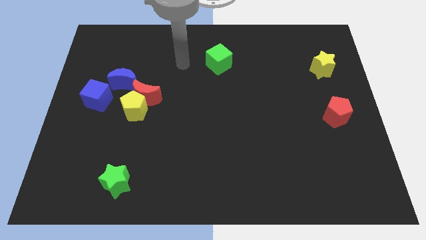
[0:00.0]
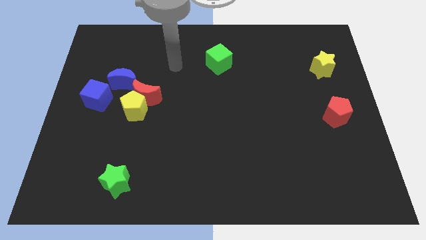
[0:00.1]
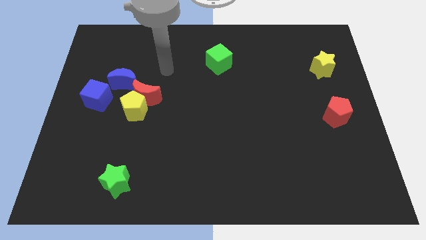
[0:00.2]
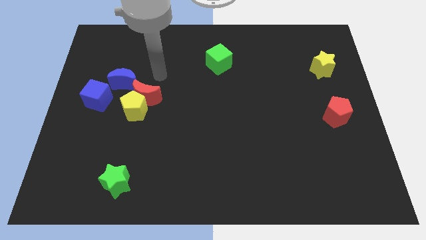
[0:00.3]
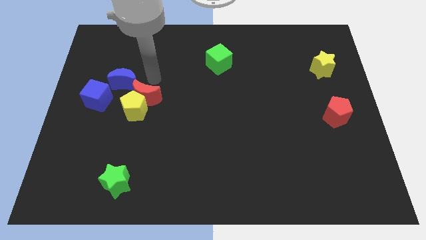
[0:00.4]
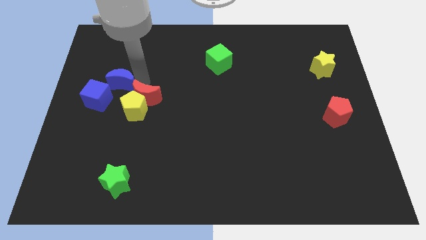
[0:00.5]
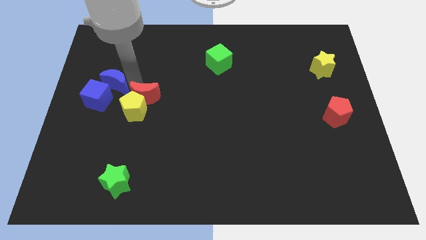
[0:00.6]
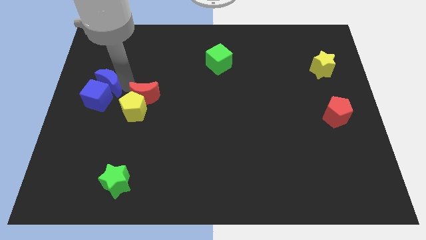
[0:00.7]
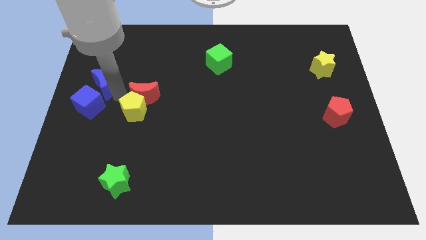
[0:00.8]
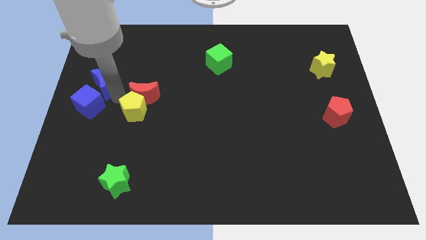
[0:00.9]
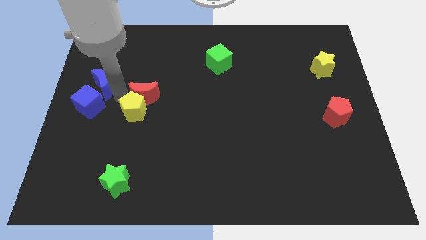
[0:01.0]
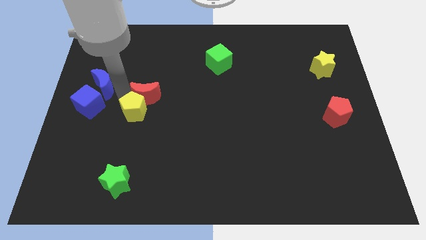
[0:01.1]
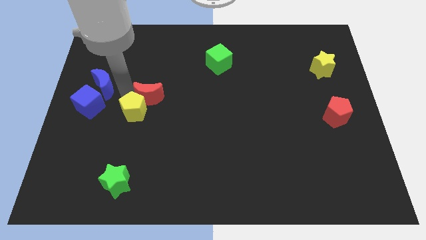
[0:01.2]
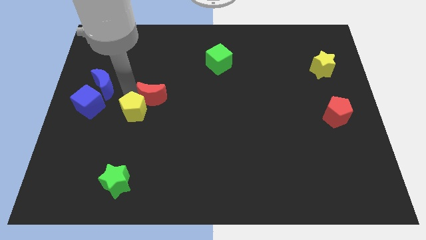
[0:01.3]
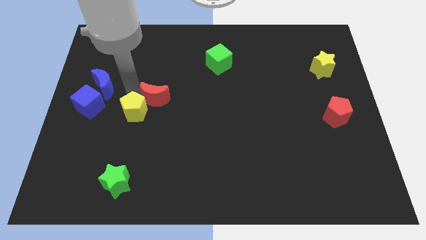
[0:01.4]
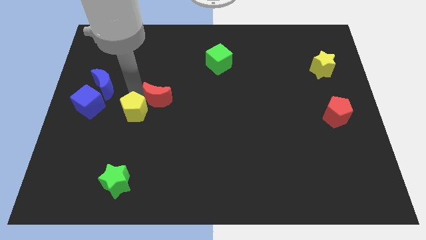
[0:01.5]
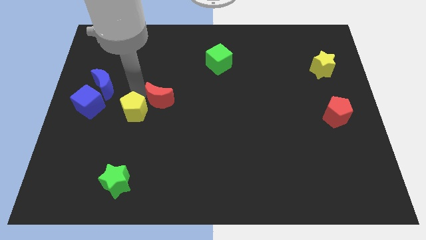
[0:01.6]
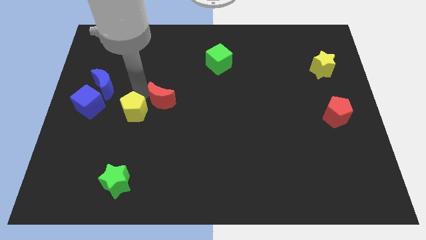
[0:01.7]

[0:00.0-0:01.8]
move the red moon away from the yellow pentagon and blue moon

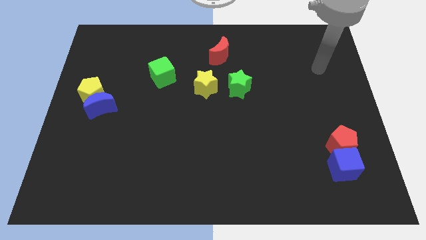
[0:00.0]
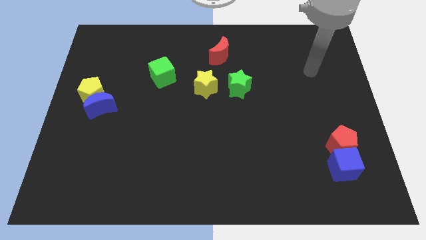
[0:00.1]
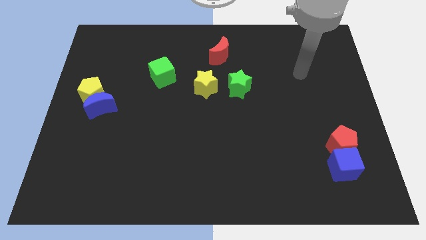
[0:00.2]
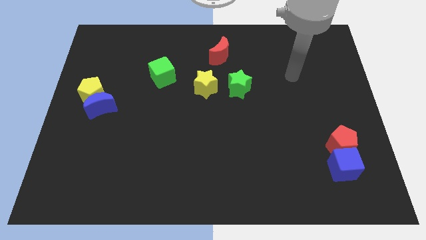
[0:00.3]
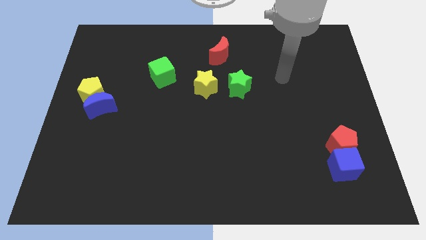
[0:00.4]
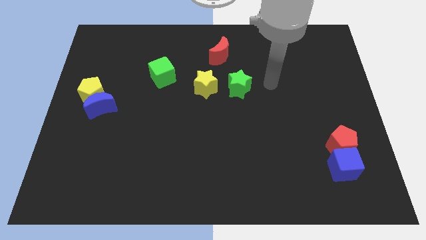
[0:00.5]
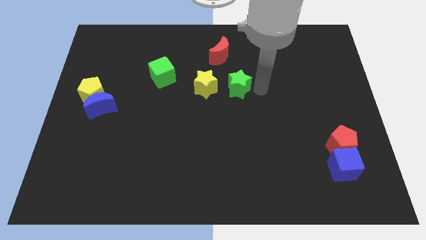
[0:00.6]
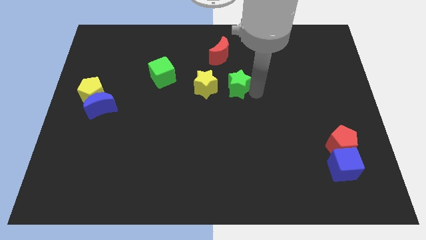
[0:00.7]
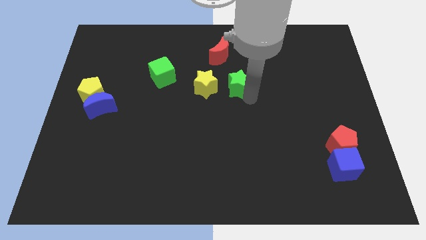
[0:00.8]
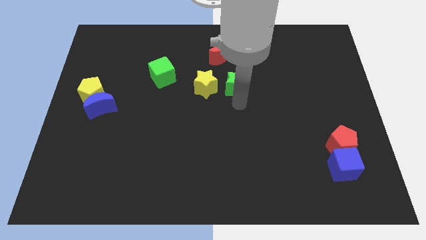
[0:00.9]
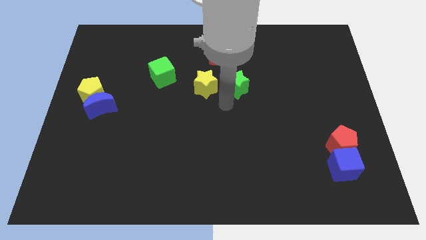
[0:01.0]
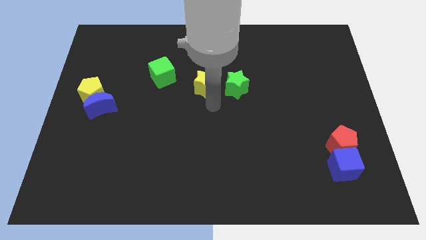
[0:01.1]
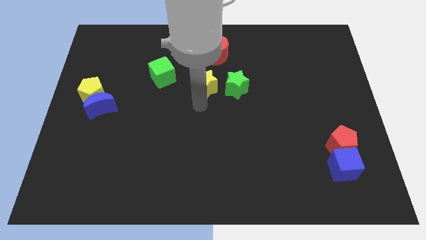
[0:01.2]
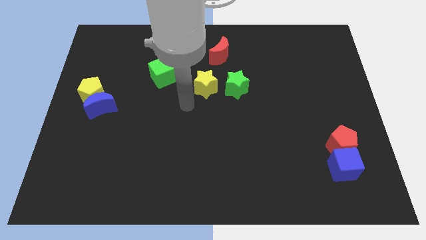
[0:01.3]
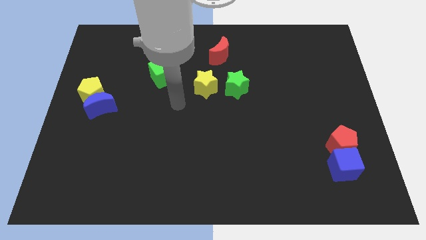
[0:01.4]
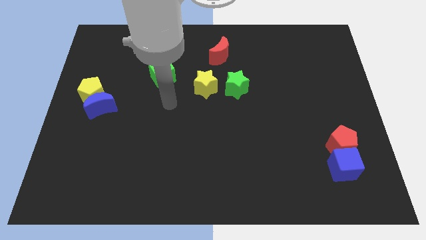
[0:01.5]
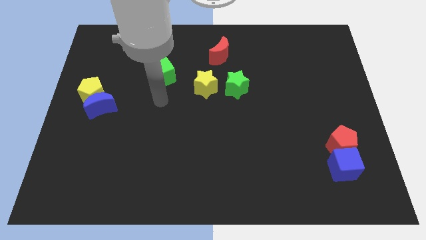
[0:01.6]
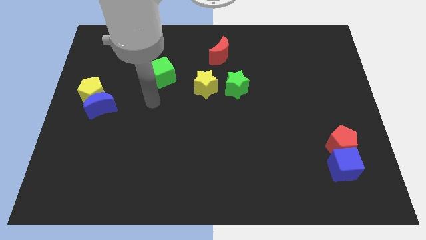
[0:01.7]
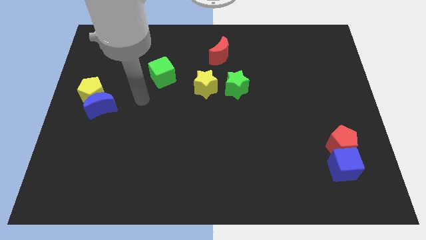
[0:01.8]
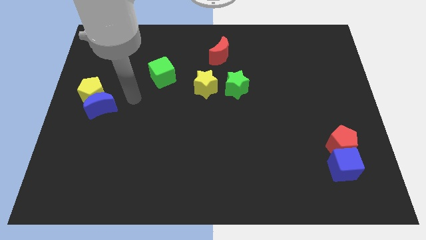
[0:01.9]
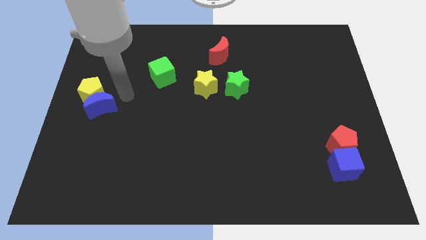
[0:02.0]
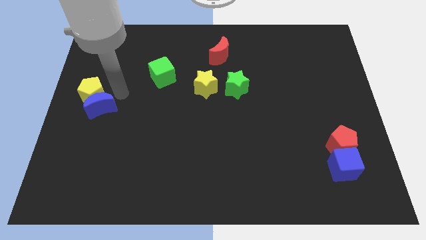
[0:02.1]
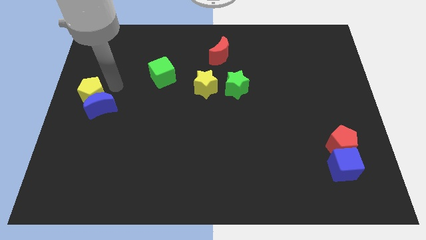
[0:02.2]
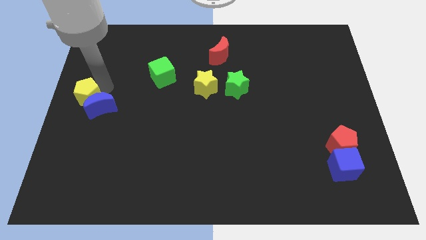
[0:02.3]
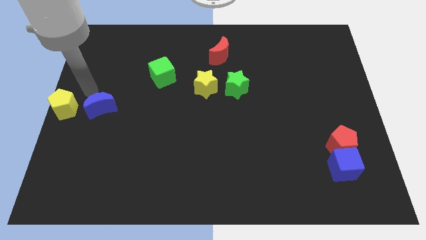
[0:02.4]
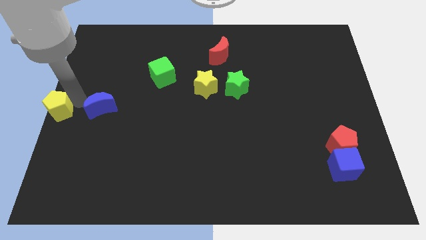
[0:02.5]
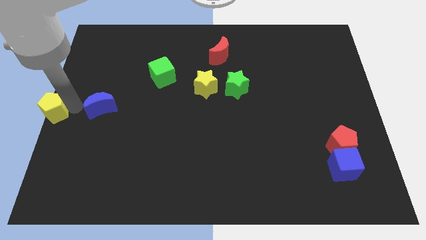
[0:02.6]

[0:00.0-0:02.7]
separate the blue moon from the yellow pentagon

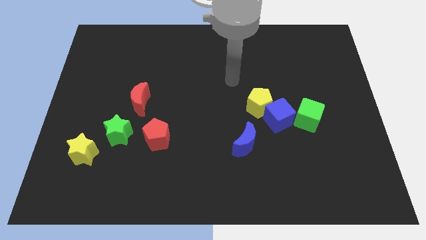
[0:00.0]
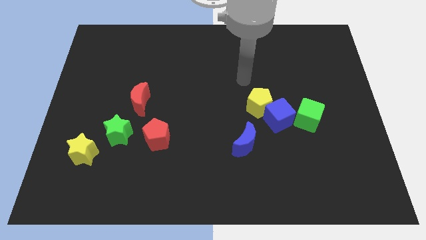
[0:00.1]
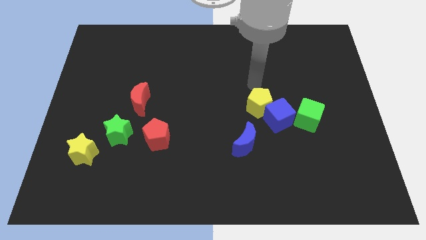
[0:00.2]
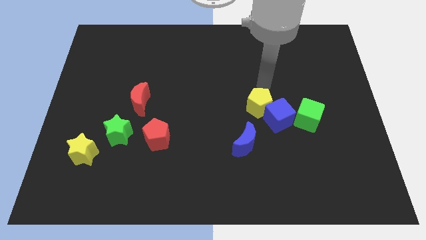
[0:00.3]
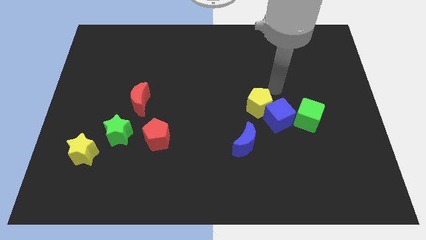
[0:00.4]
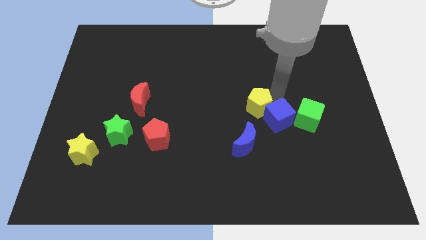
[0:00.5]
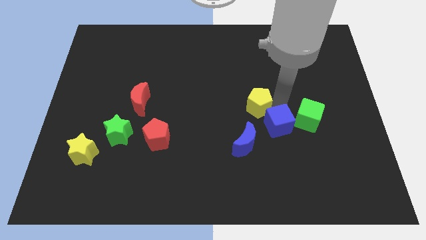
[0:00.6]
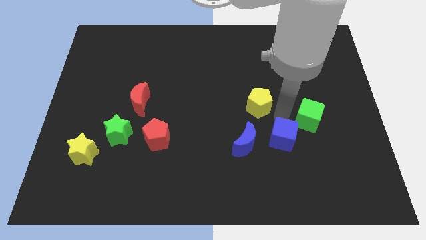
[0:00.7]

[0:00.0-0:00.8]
move the yellow pentagon away from the blue cube

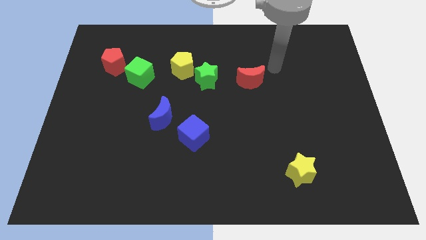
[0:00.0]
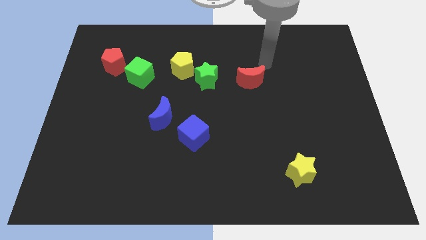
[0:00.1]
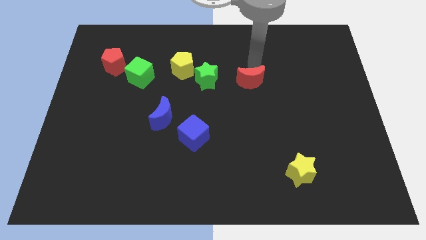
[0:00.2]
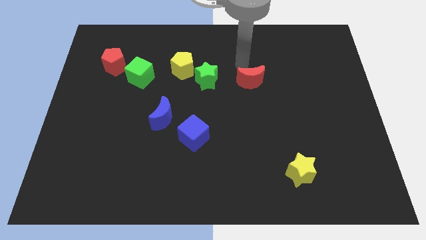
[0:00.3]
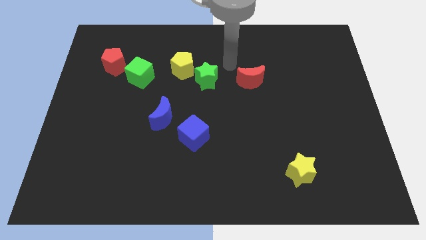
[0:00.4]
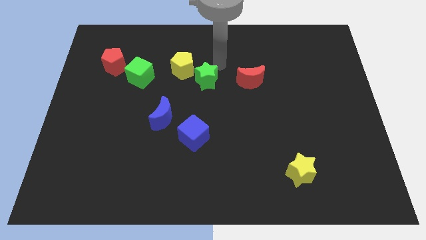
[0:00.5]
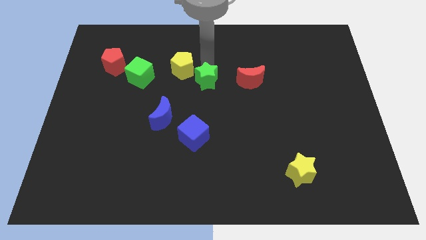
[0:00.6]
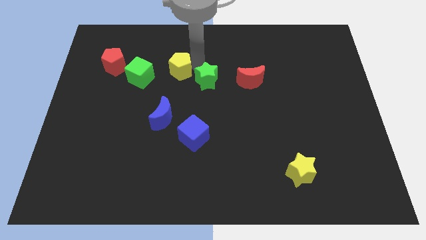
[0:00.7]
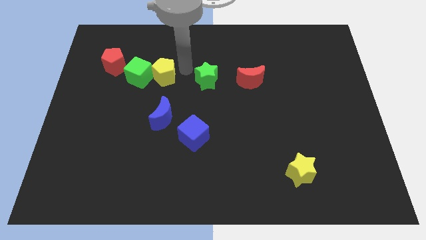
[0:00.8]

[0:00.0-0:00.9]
separate the green star from the yellow pentagon

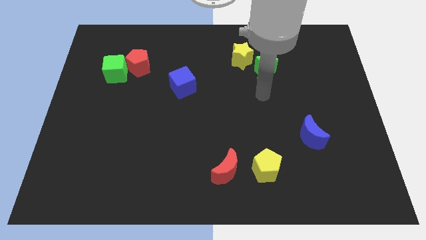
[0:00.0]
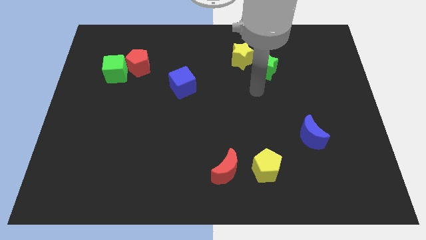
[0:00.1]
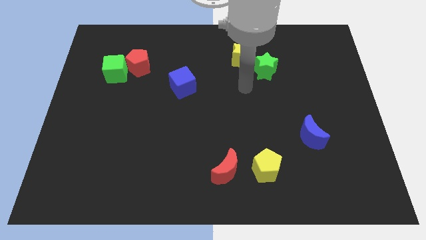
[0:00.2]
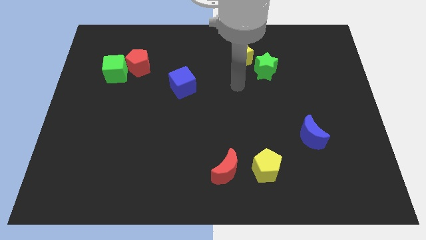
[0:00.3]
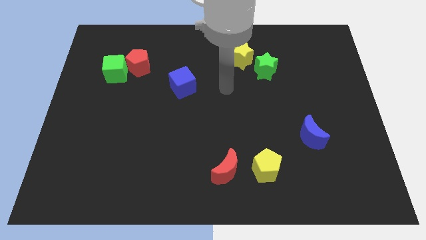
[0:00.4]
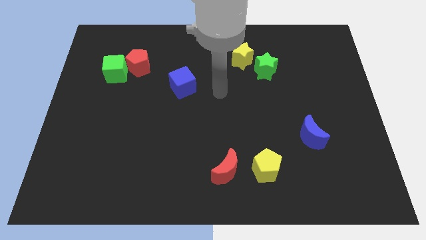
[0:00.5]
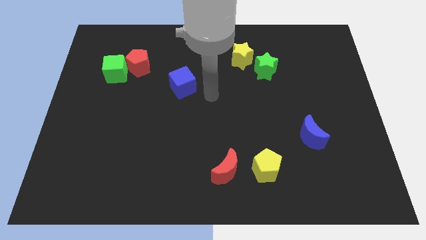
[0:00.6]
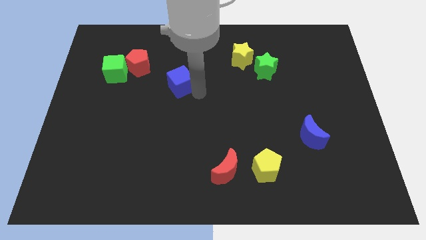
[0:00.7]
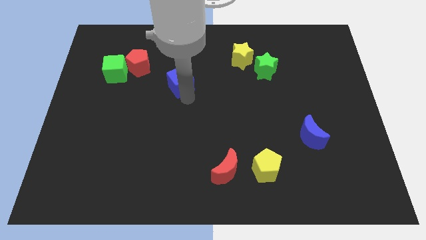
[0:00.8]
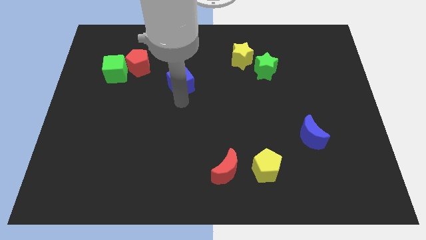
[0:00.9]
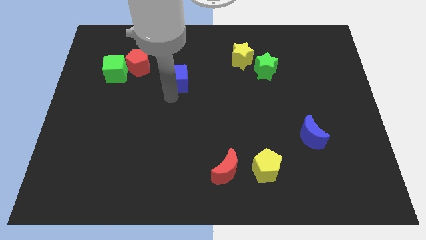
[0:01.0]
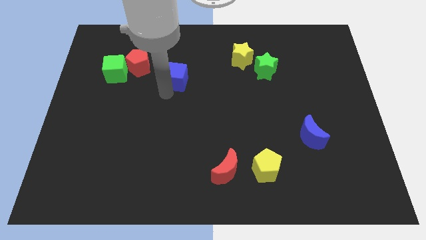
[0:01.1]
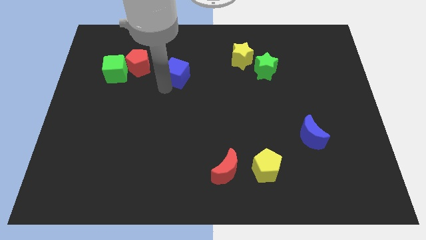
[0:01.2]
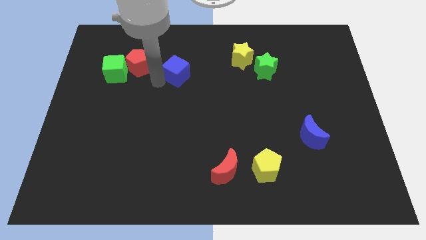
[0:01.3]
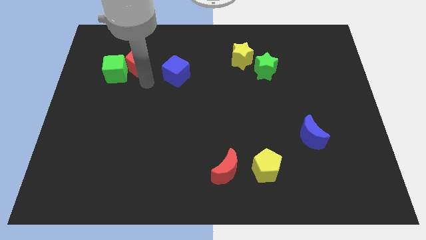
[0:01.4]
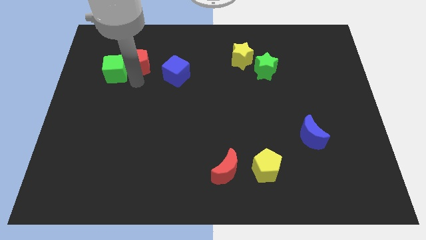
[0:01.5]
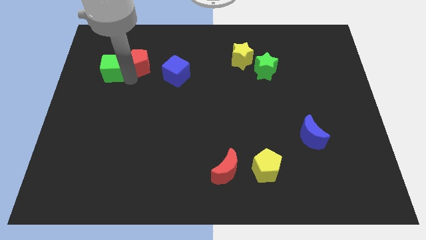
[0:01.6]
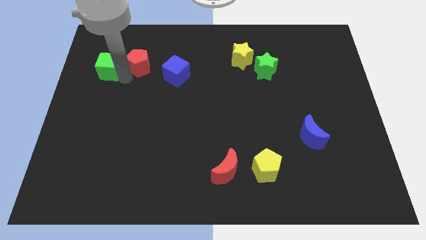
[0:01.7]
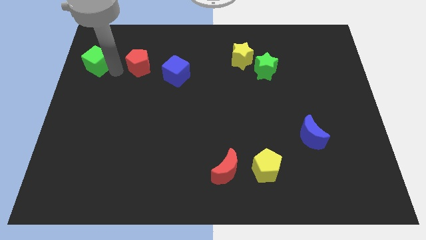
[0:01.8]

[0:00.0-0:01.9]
pull the red pentagon apart from the green cube

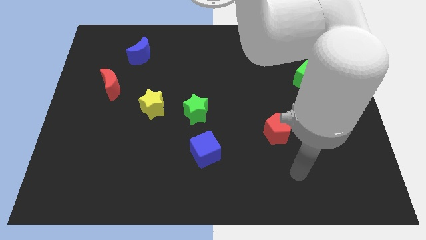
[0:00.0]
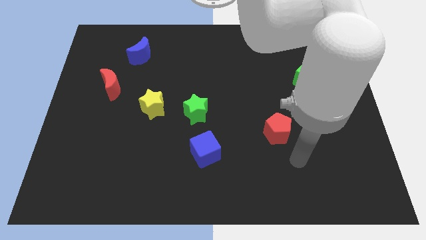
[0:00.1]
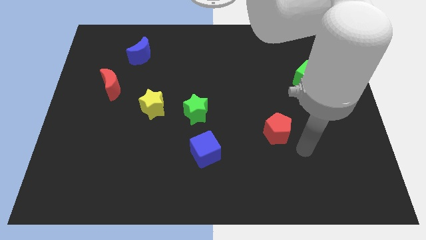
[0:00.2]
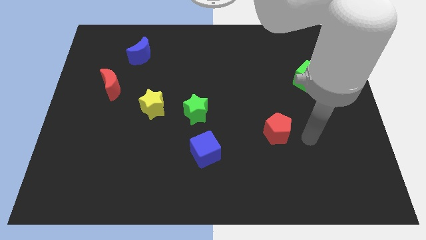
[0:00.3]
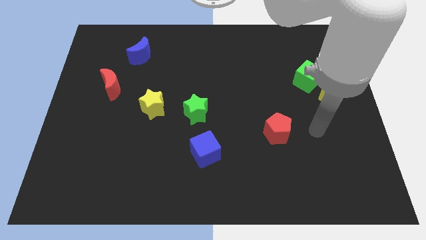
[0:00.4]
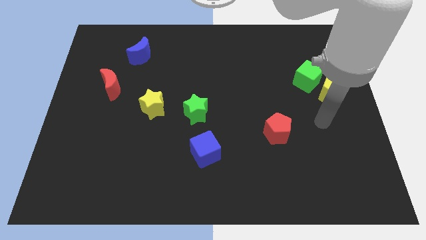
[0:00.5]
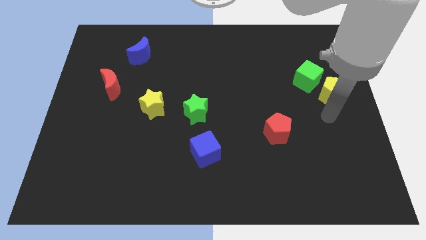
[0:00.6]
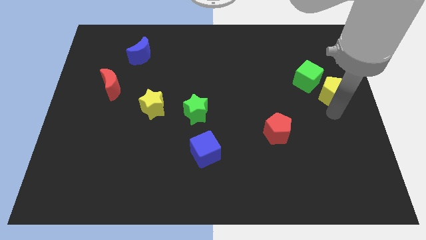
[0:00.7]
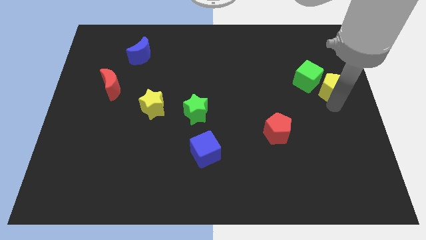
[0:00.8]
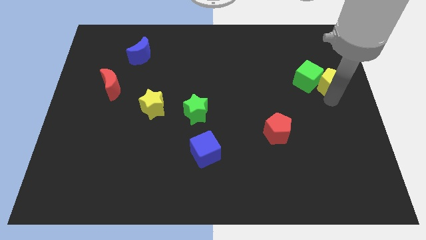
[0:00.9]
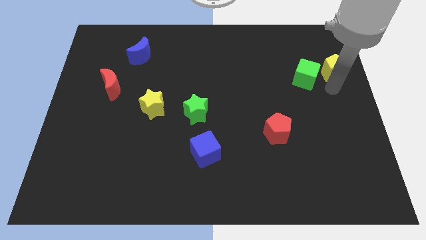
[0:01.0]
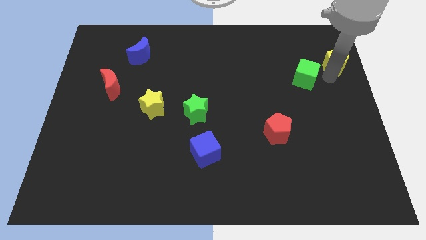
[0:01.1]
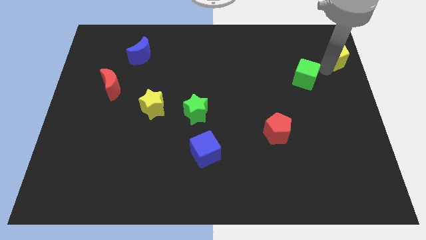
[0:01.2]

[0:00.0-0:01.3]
pull the green cube apart from the yellow pentagon
